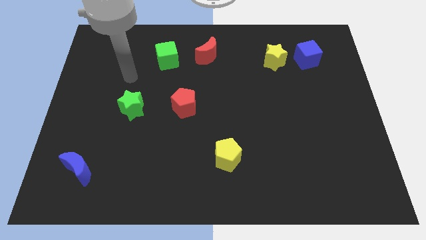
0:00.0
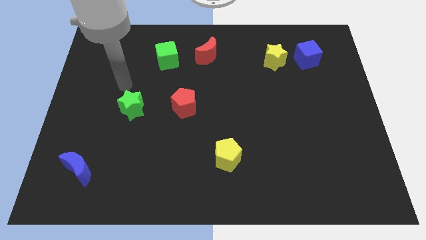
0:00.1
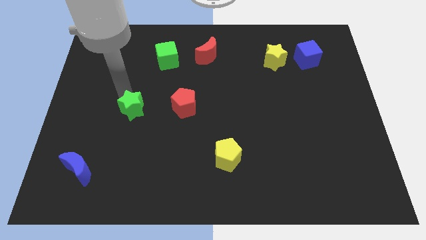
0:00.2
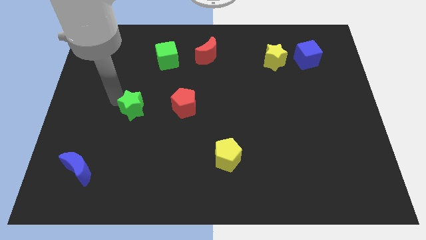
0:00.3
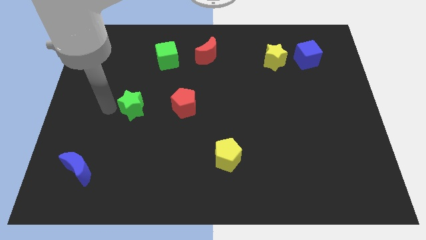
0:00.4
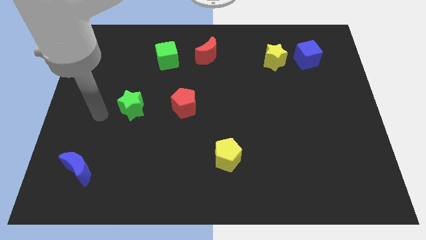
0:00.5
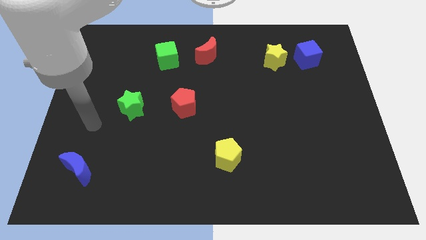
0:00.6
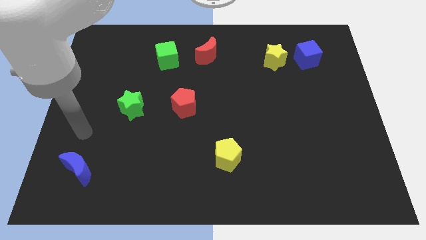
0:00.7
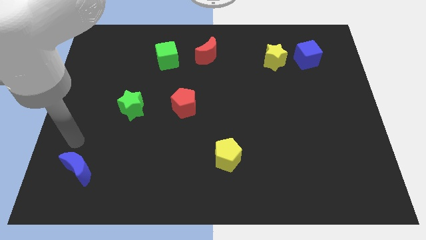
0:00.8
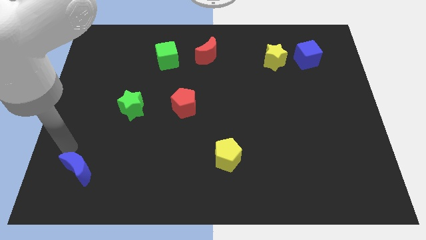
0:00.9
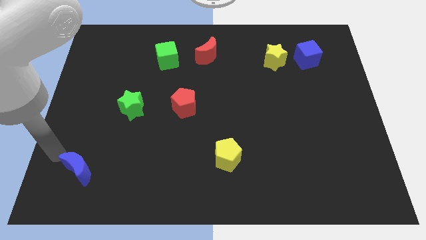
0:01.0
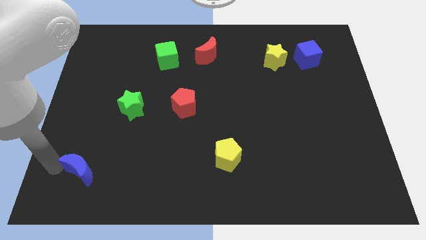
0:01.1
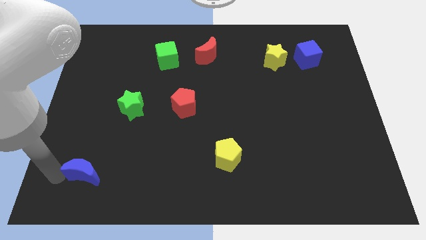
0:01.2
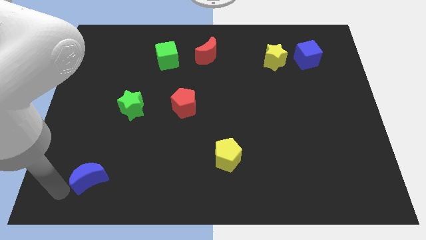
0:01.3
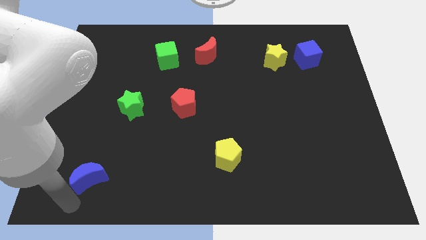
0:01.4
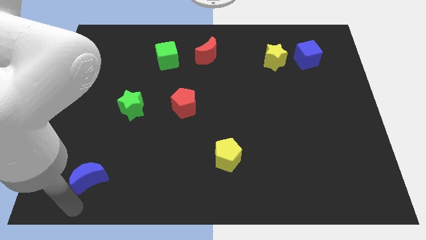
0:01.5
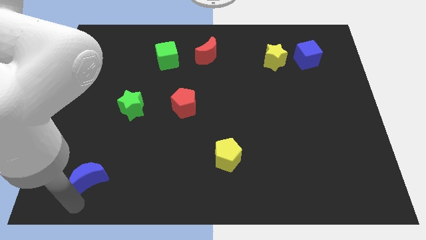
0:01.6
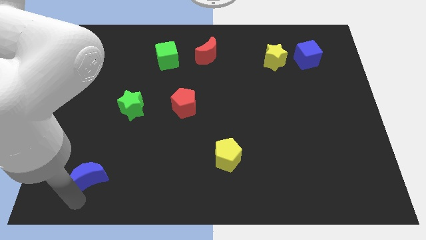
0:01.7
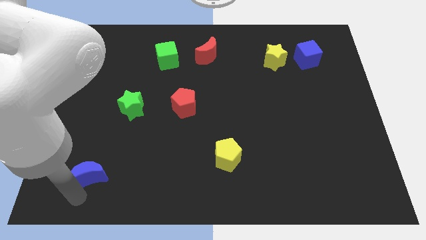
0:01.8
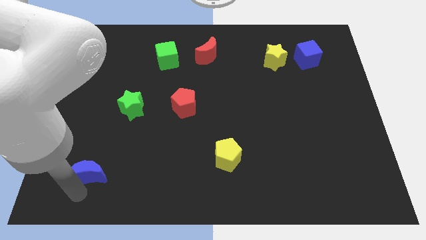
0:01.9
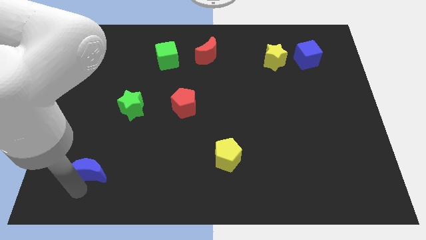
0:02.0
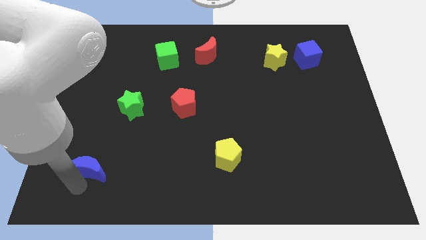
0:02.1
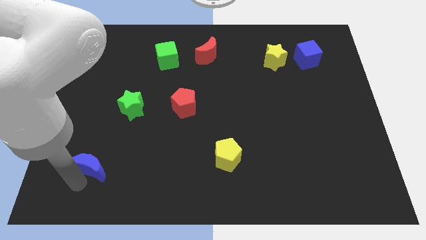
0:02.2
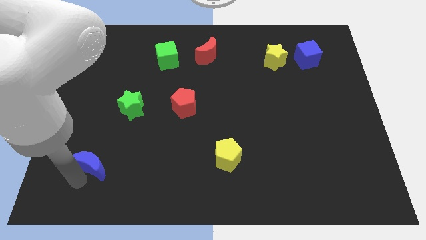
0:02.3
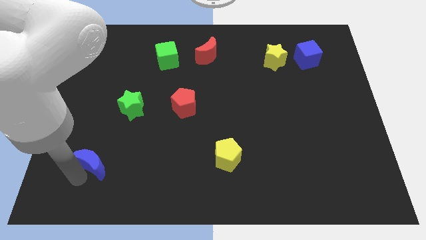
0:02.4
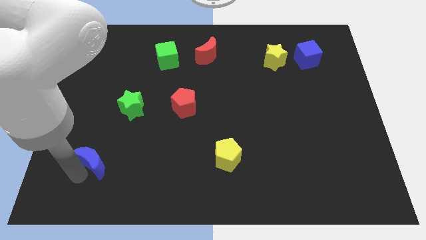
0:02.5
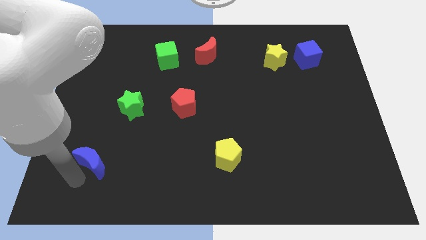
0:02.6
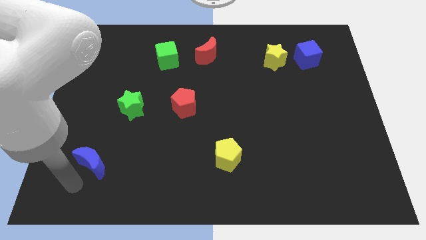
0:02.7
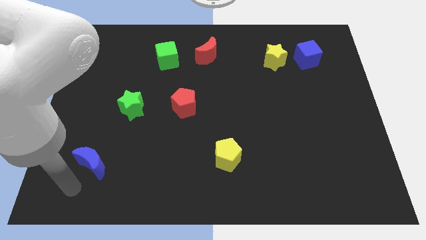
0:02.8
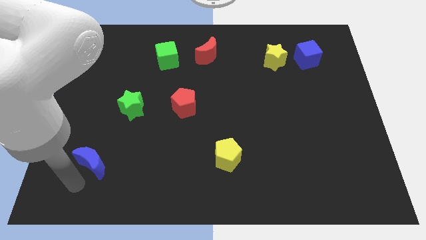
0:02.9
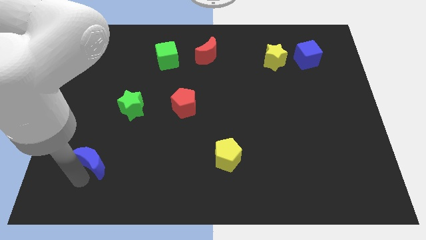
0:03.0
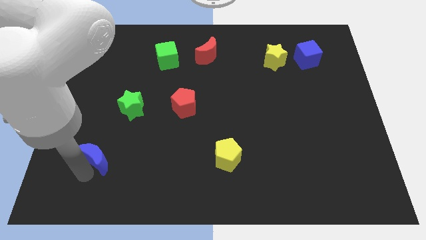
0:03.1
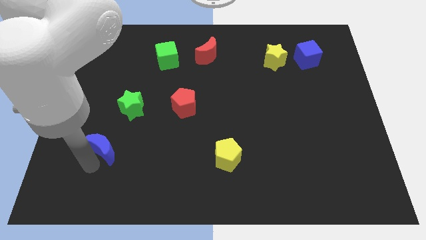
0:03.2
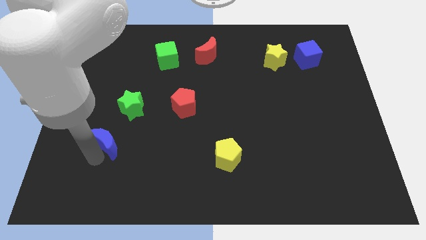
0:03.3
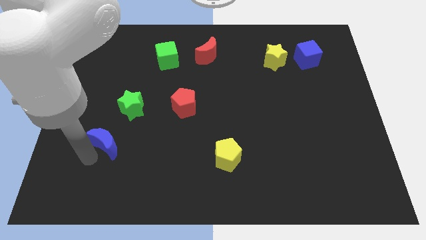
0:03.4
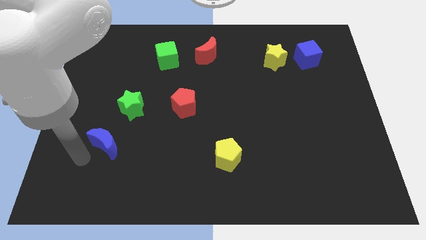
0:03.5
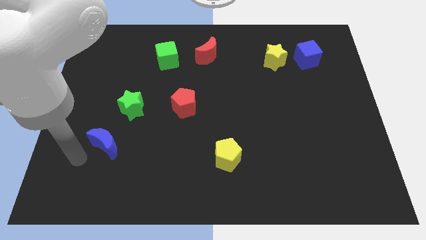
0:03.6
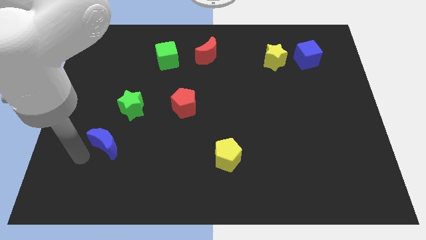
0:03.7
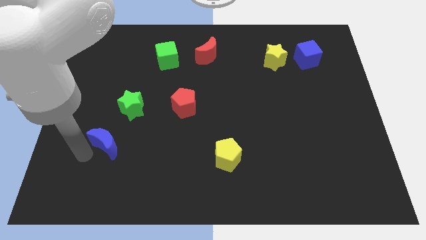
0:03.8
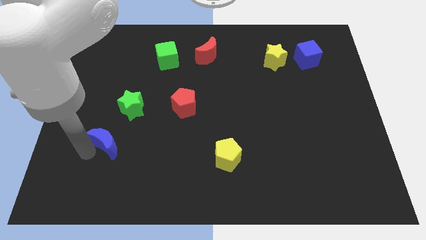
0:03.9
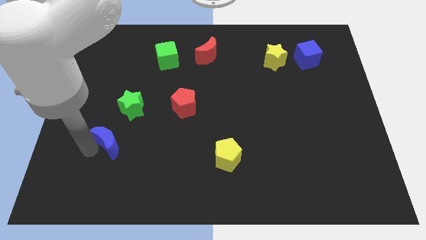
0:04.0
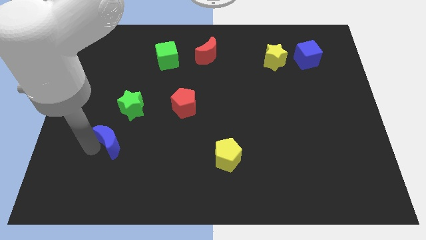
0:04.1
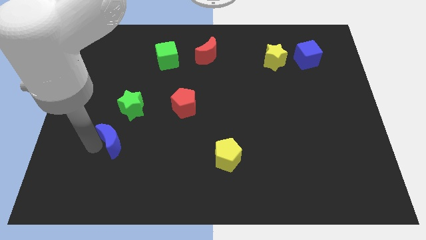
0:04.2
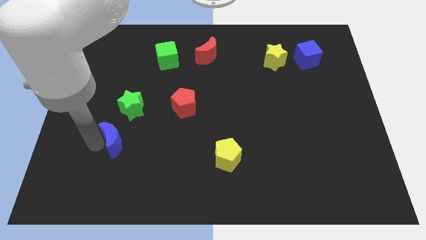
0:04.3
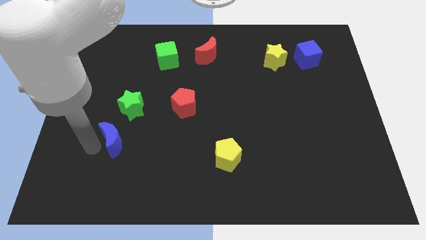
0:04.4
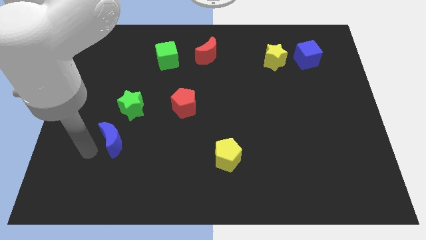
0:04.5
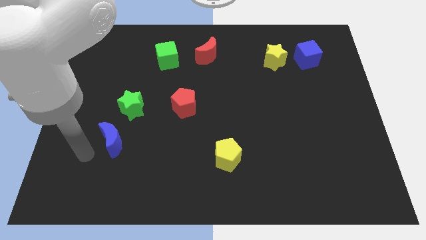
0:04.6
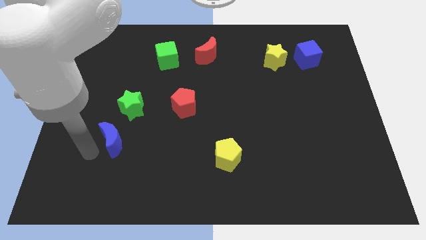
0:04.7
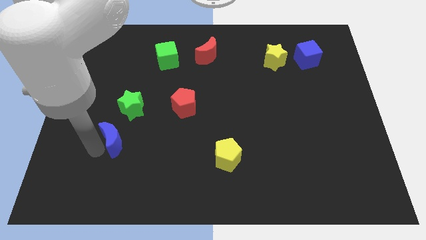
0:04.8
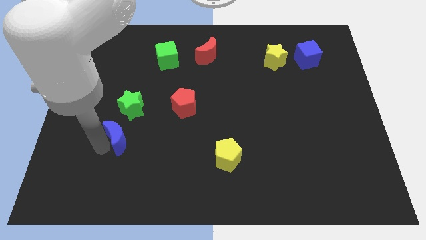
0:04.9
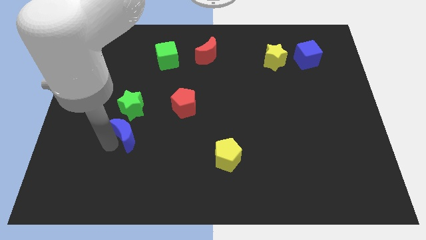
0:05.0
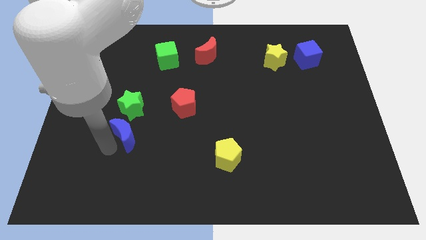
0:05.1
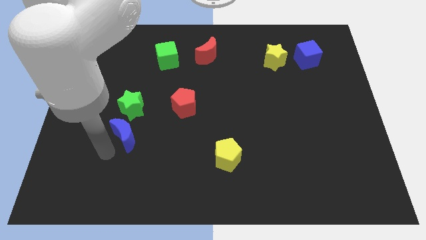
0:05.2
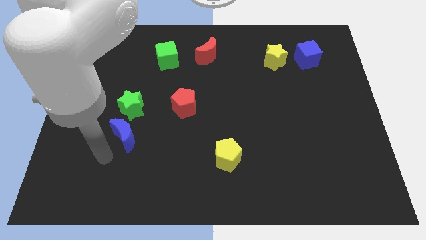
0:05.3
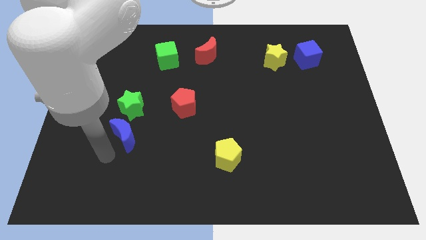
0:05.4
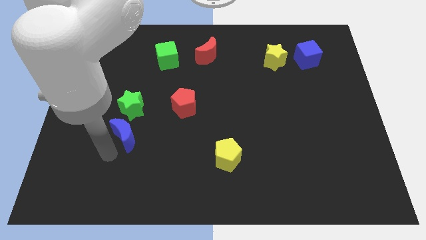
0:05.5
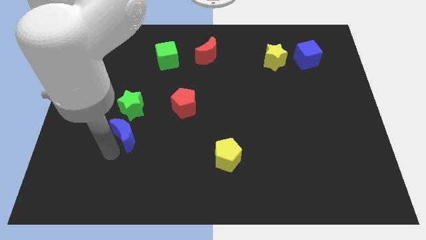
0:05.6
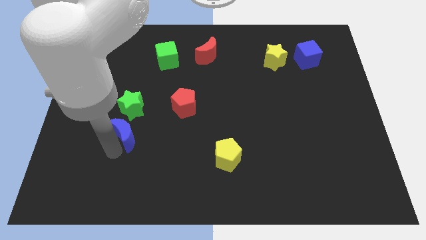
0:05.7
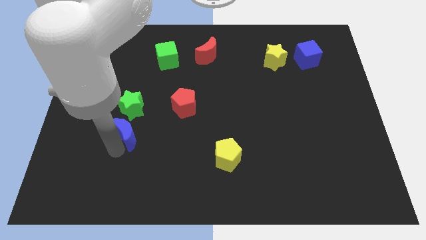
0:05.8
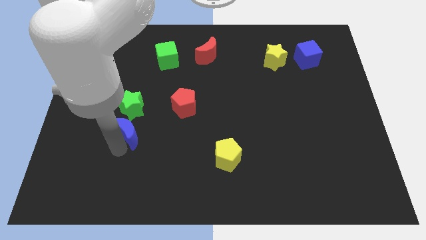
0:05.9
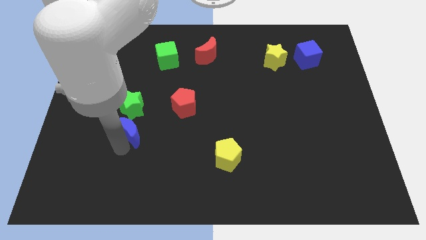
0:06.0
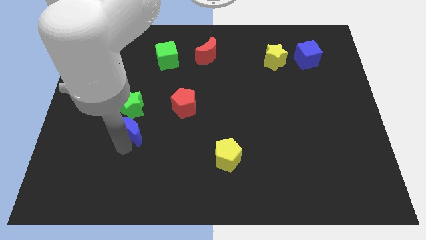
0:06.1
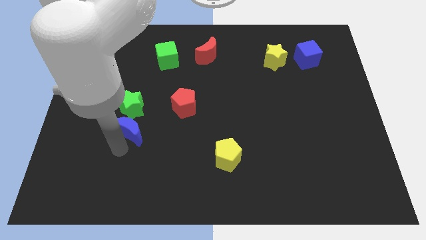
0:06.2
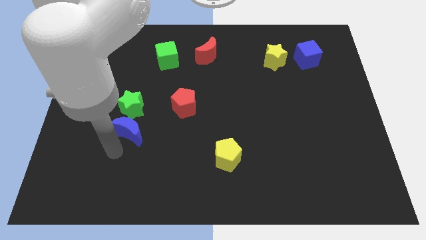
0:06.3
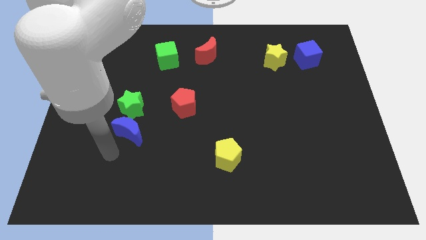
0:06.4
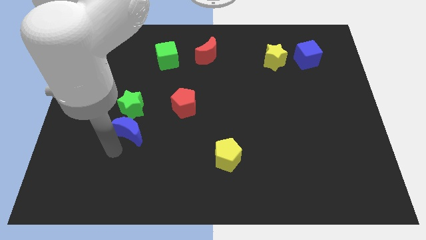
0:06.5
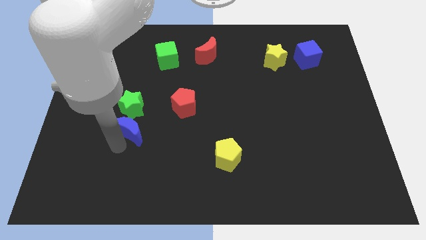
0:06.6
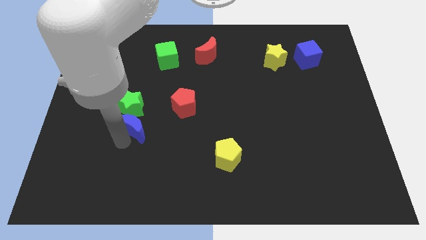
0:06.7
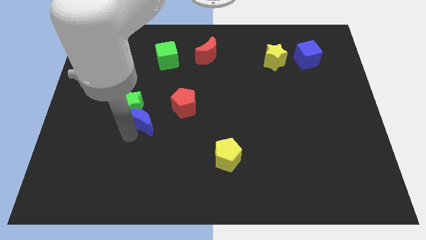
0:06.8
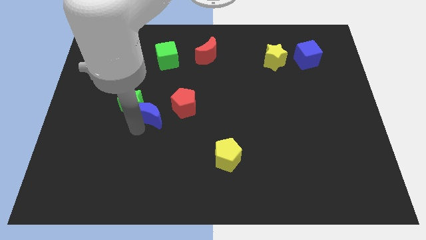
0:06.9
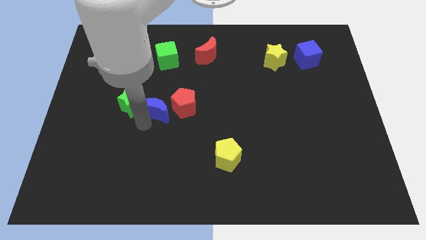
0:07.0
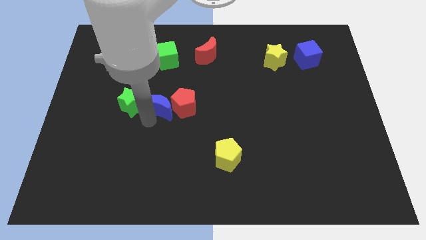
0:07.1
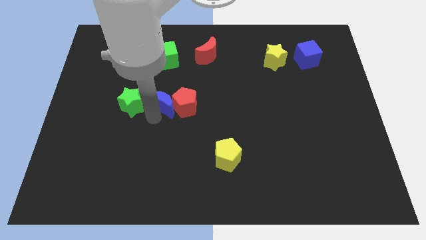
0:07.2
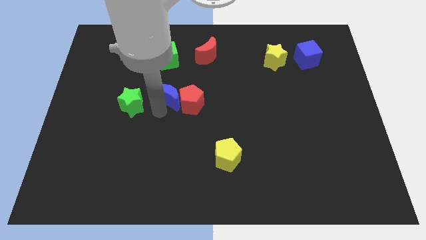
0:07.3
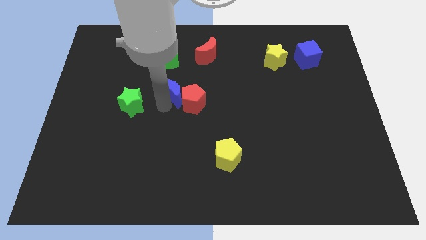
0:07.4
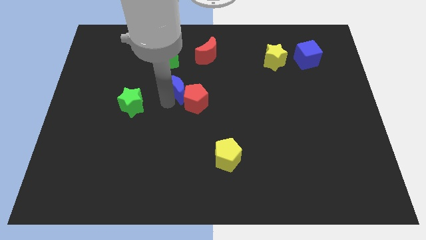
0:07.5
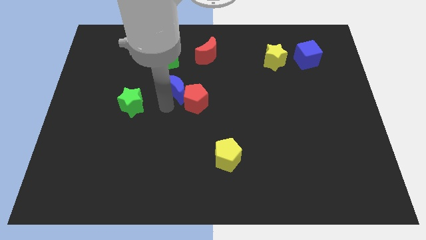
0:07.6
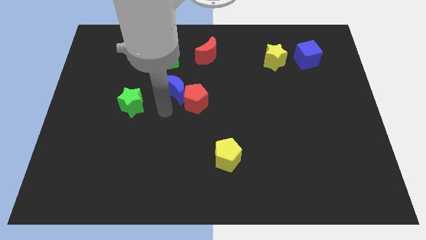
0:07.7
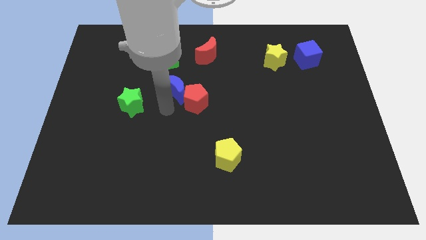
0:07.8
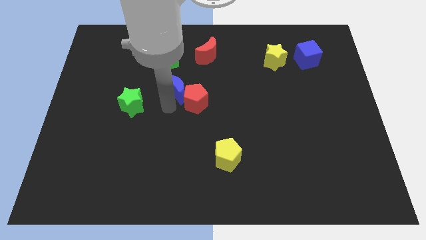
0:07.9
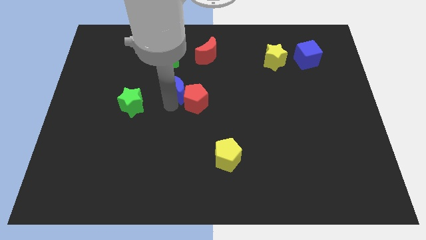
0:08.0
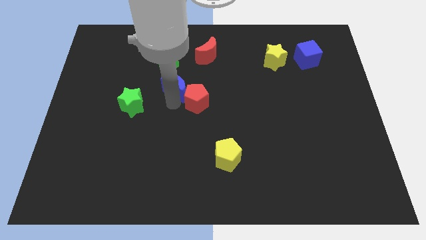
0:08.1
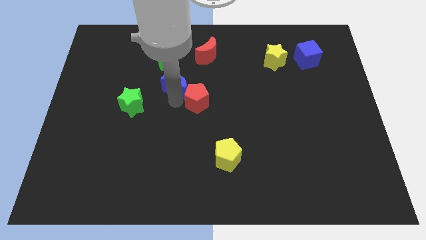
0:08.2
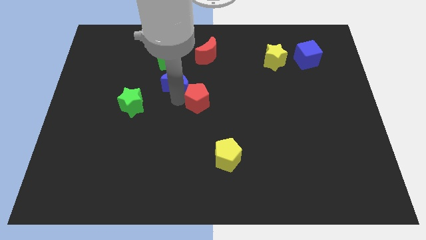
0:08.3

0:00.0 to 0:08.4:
move the blue moon diagonally down and to the right of the green cube
